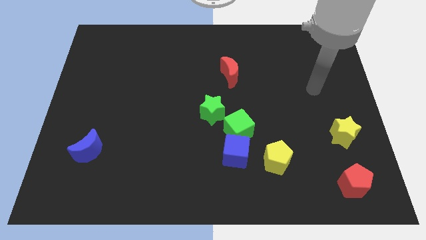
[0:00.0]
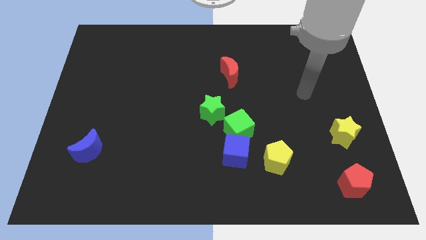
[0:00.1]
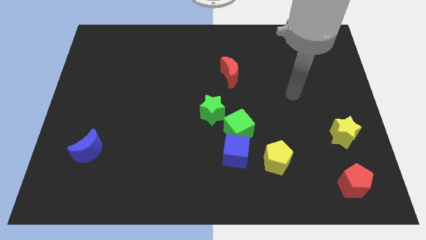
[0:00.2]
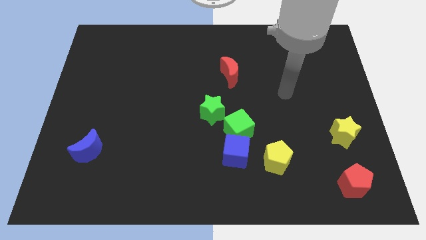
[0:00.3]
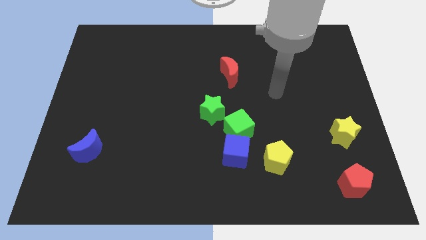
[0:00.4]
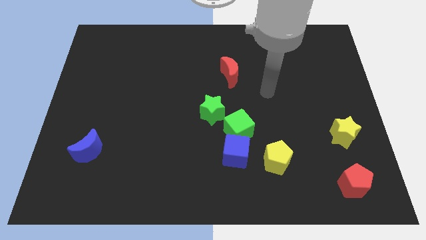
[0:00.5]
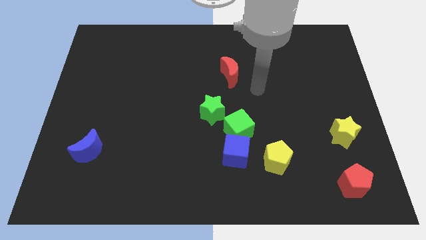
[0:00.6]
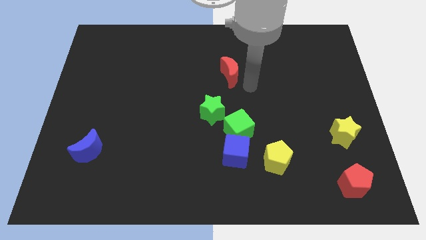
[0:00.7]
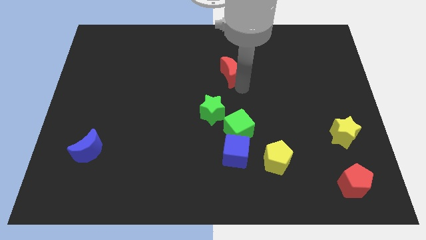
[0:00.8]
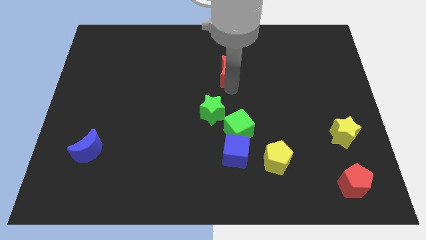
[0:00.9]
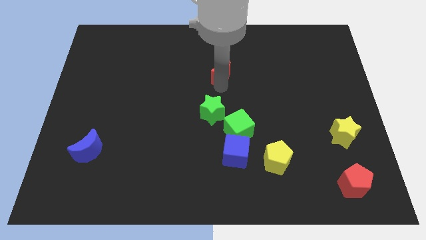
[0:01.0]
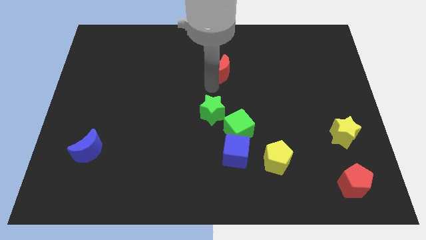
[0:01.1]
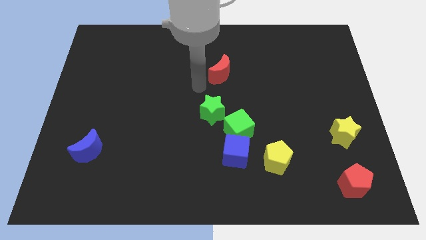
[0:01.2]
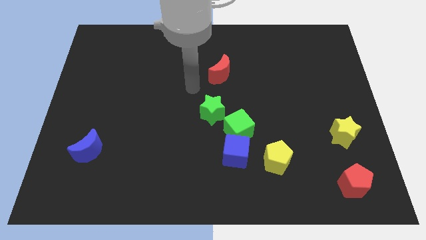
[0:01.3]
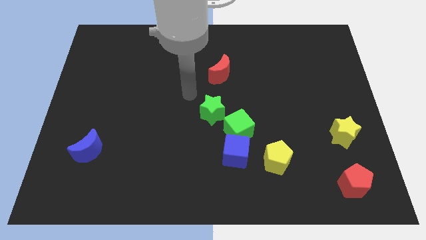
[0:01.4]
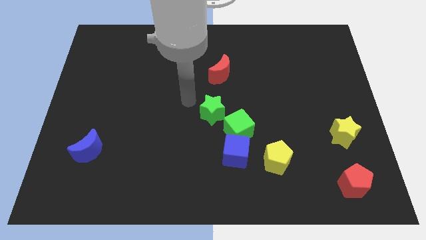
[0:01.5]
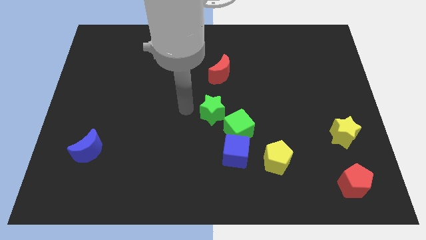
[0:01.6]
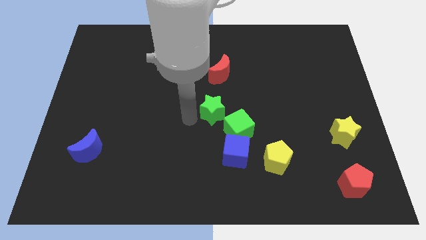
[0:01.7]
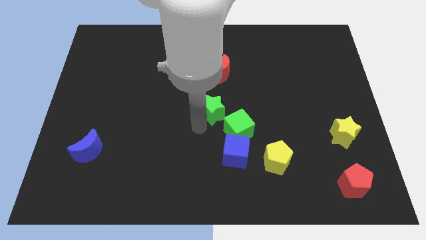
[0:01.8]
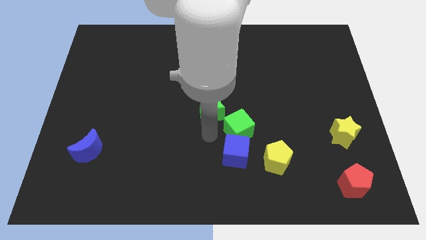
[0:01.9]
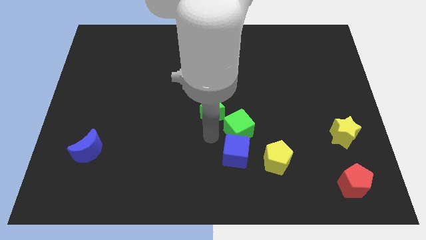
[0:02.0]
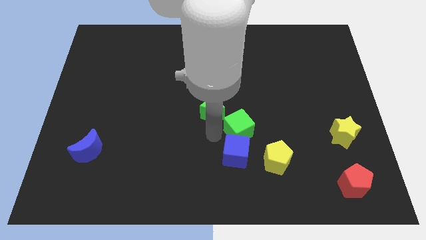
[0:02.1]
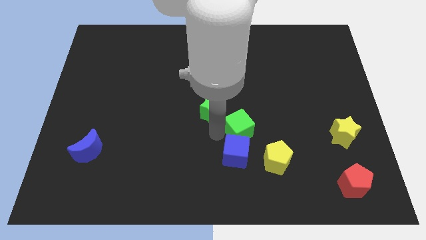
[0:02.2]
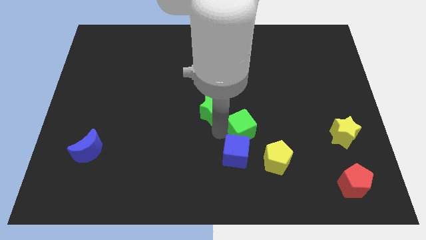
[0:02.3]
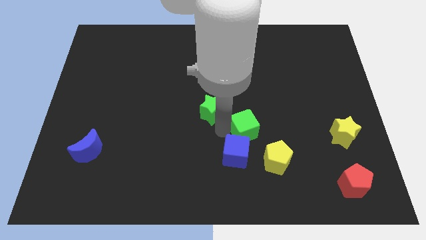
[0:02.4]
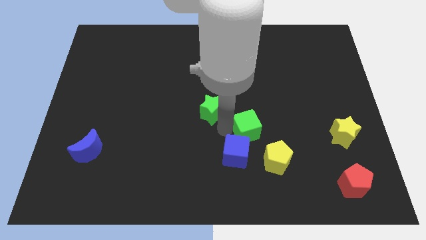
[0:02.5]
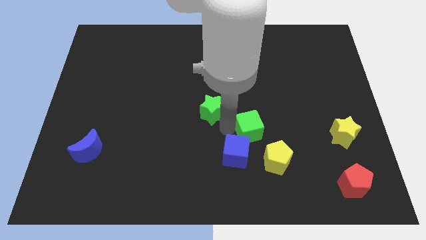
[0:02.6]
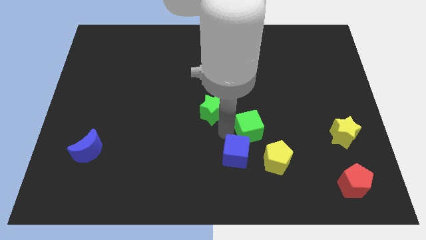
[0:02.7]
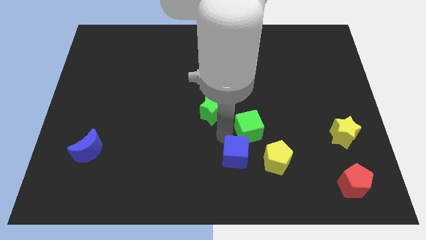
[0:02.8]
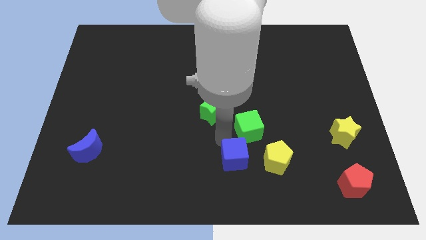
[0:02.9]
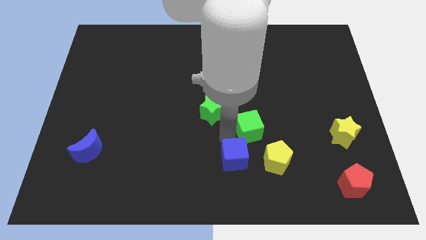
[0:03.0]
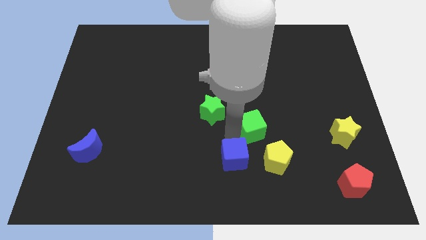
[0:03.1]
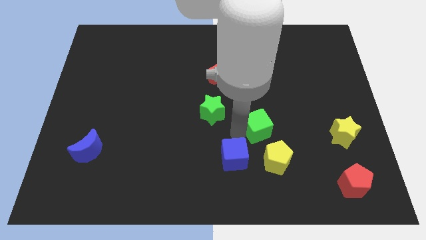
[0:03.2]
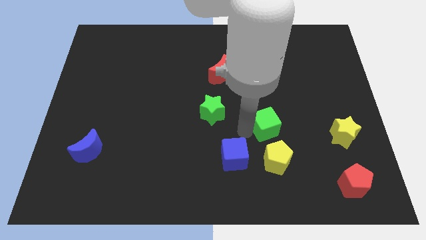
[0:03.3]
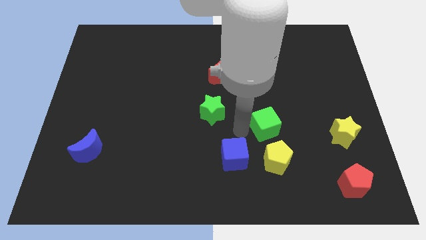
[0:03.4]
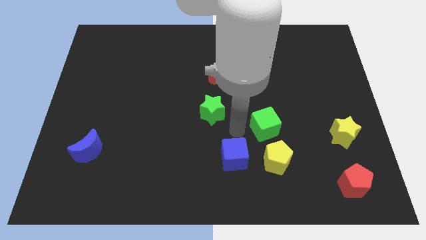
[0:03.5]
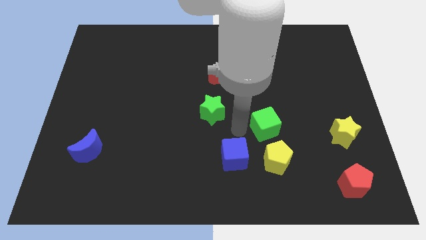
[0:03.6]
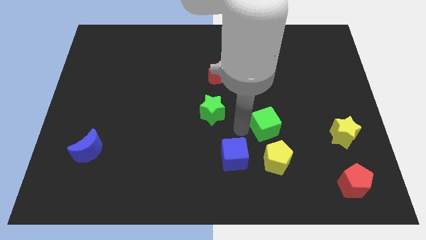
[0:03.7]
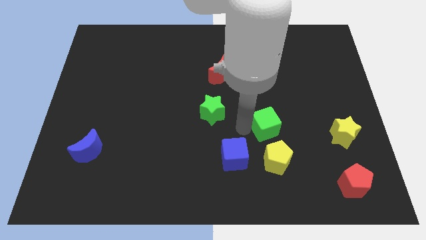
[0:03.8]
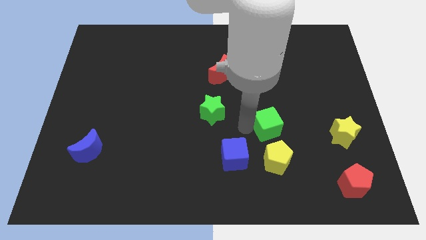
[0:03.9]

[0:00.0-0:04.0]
move the green cube away from the blue cube and green star

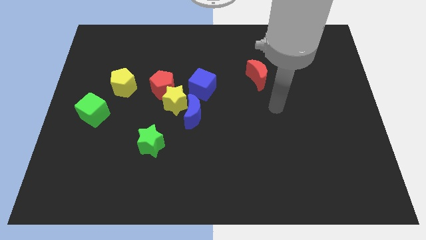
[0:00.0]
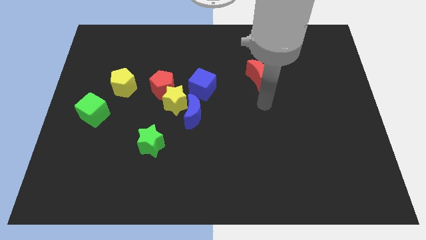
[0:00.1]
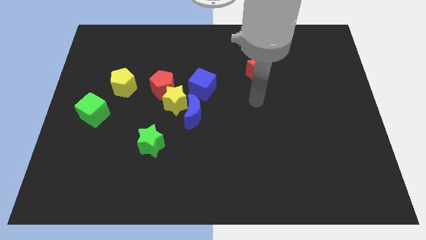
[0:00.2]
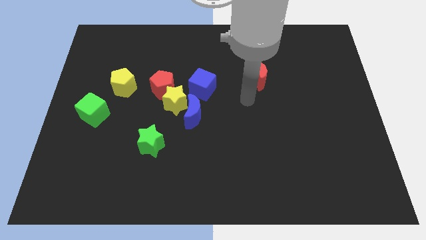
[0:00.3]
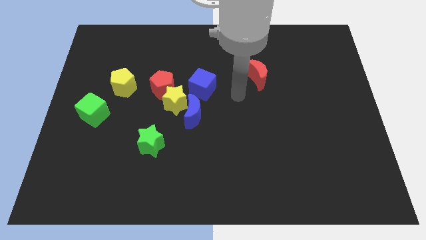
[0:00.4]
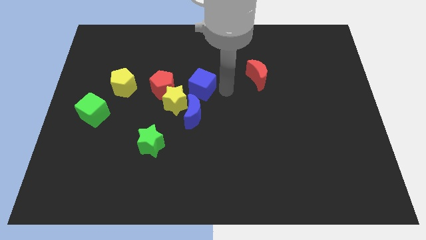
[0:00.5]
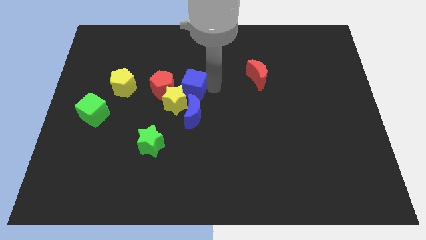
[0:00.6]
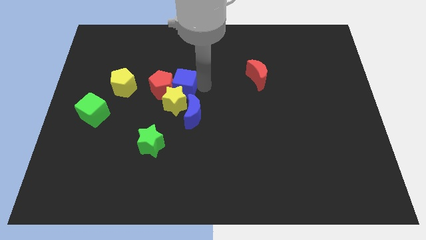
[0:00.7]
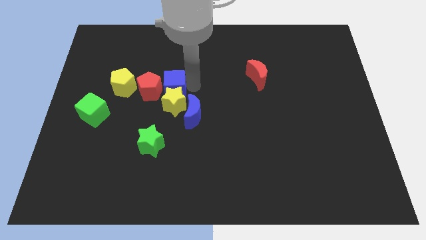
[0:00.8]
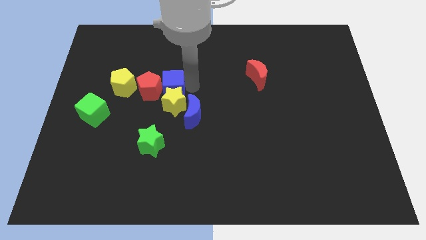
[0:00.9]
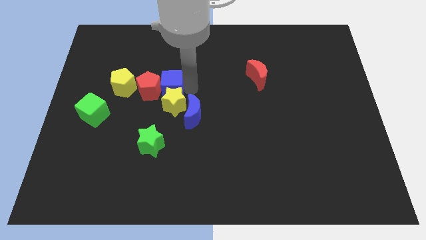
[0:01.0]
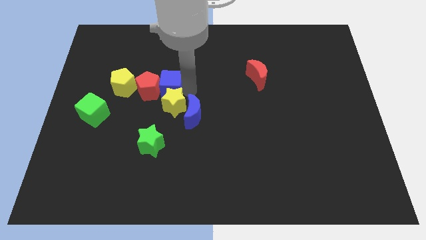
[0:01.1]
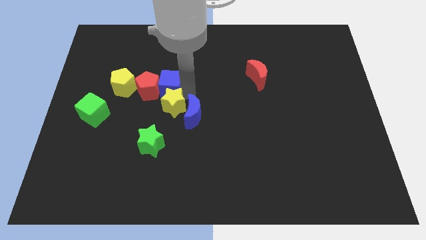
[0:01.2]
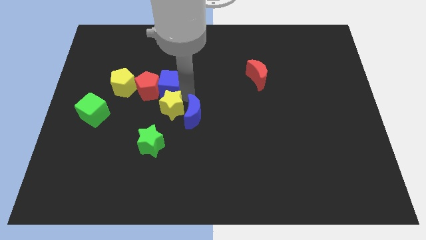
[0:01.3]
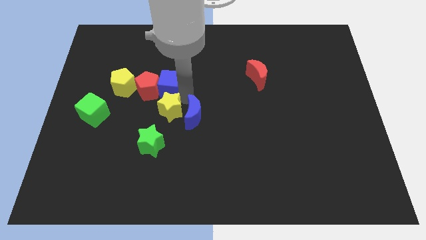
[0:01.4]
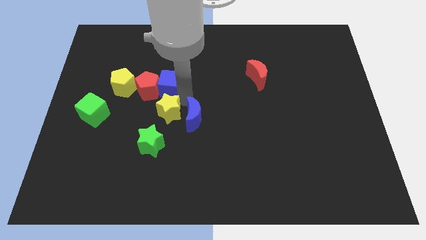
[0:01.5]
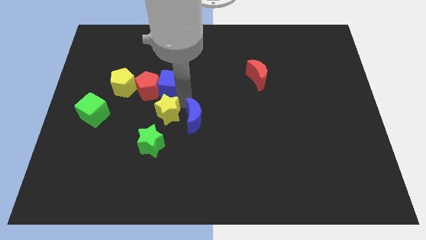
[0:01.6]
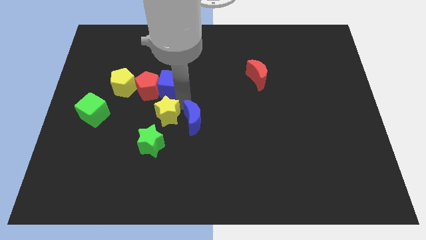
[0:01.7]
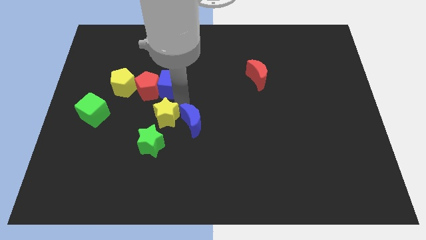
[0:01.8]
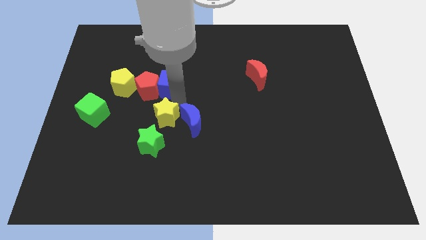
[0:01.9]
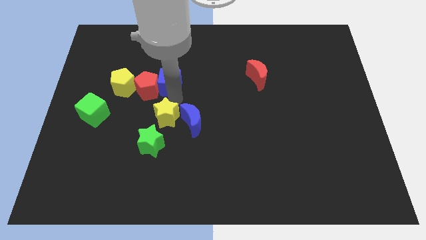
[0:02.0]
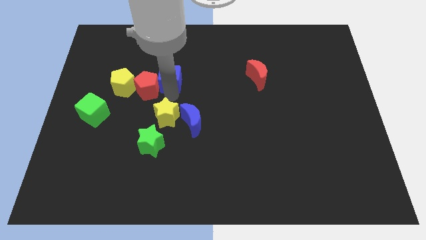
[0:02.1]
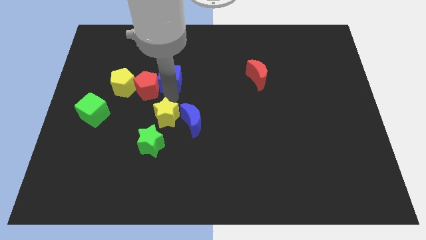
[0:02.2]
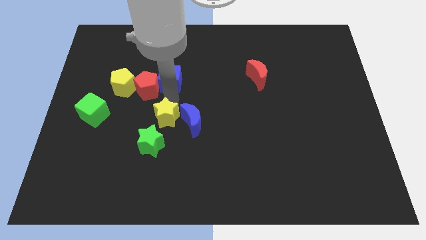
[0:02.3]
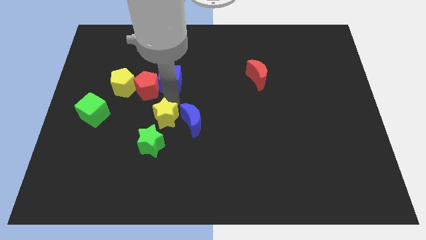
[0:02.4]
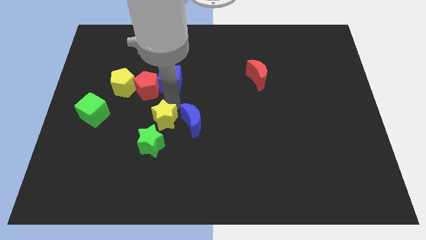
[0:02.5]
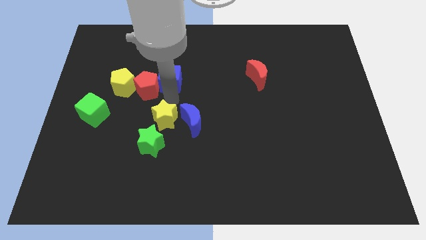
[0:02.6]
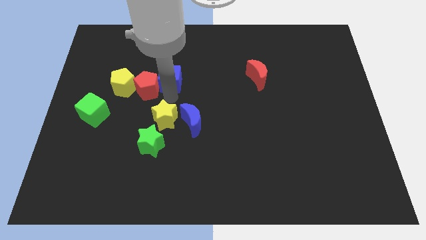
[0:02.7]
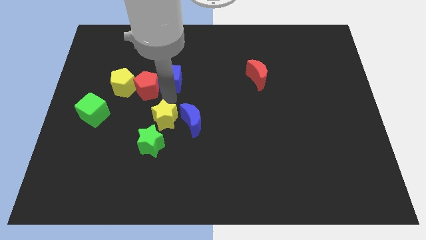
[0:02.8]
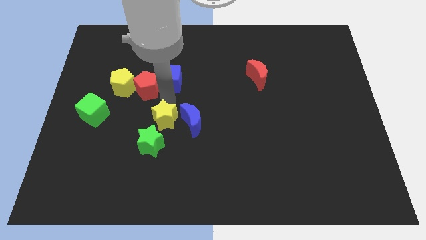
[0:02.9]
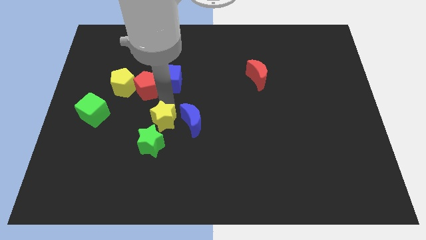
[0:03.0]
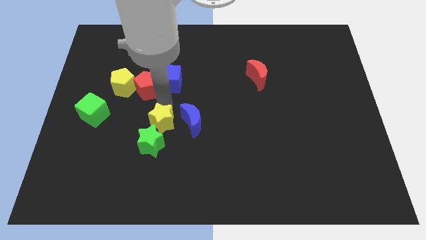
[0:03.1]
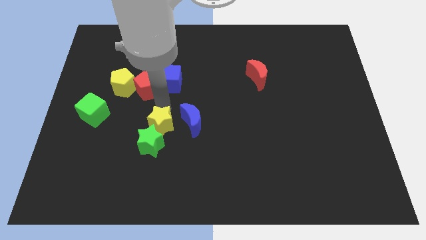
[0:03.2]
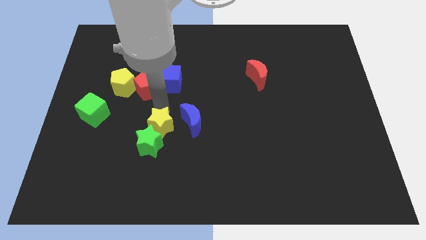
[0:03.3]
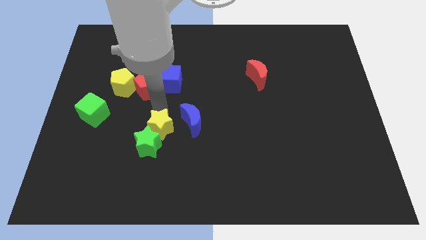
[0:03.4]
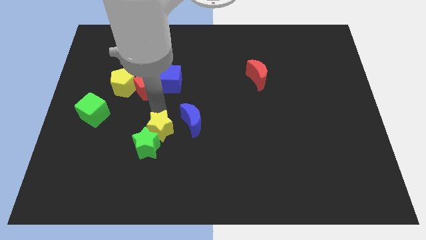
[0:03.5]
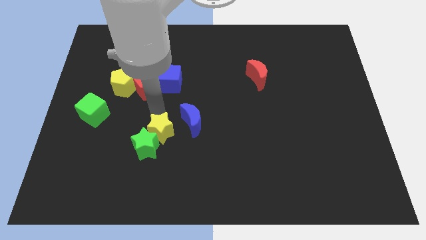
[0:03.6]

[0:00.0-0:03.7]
separate the yellow star from the group of blocks

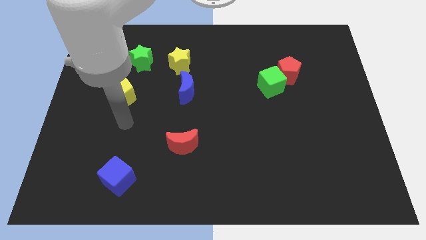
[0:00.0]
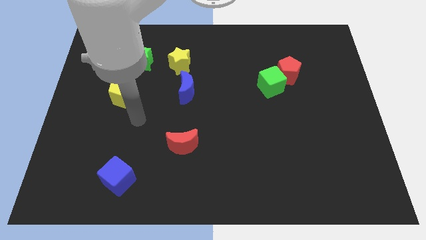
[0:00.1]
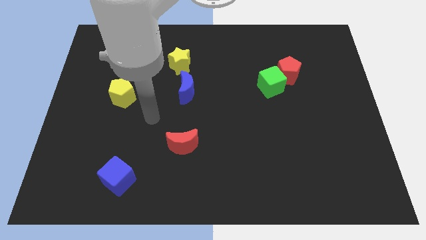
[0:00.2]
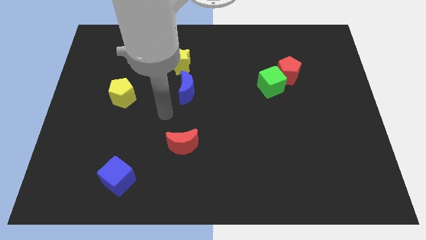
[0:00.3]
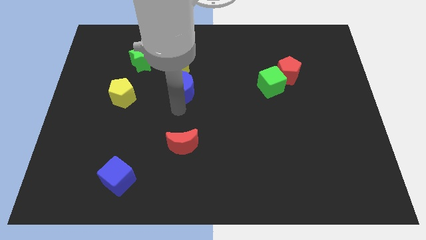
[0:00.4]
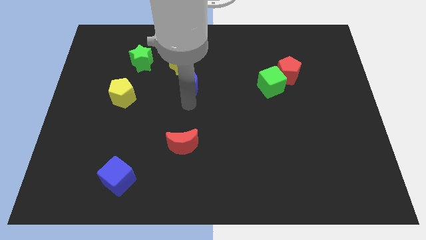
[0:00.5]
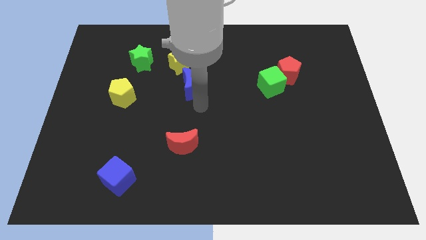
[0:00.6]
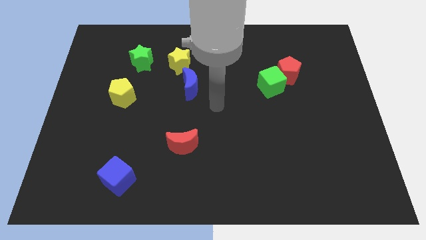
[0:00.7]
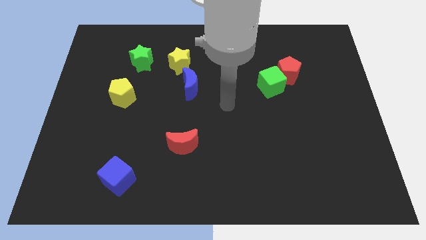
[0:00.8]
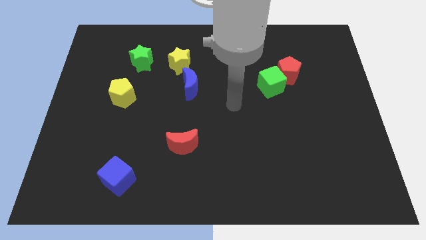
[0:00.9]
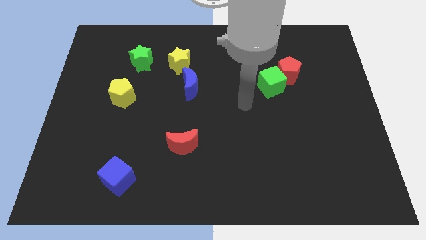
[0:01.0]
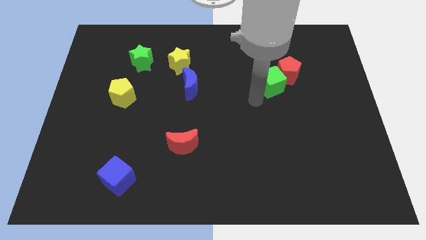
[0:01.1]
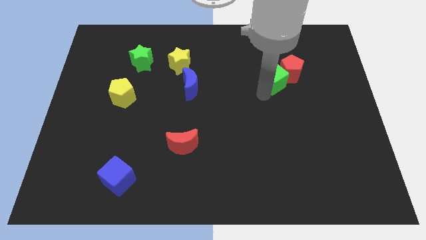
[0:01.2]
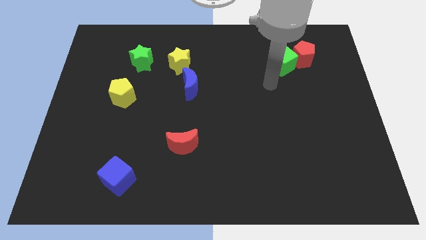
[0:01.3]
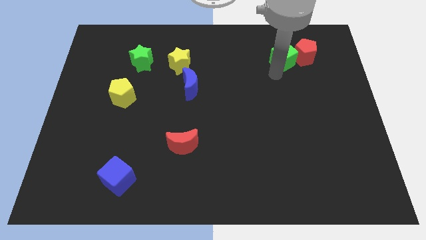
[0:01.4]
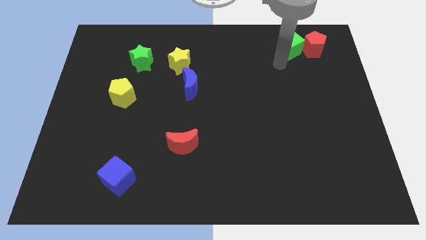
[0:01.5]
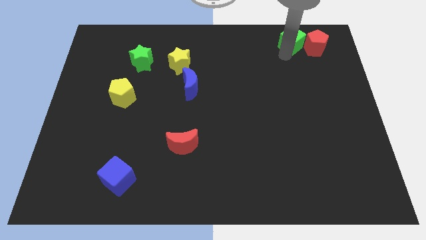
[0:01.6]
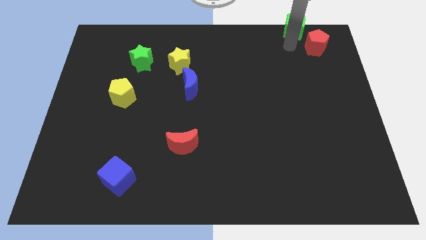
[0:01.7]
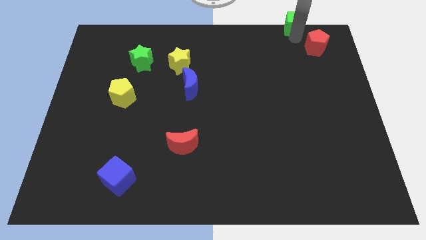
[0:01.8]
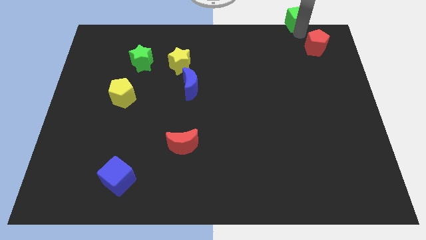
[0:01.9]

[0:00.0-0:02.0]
pull the red pentagon apart from the green cube
